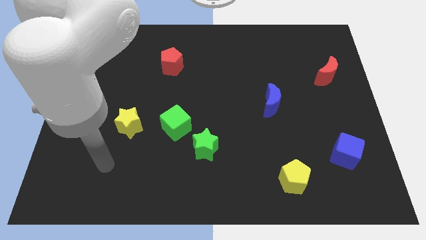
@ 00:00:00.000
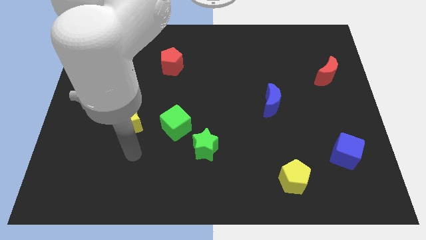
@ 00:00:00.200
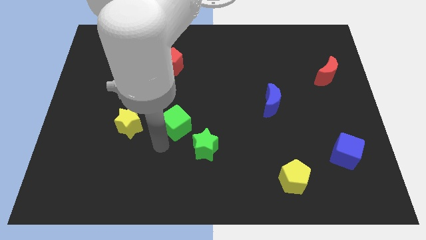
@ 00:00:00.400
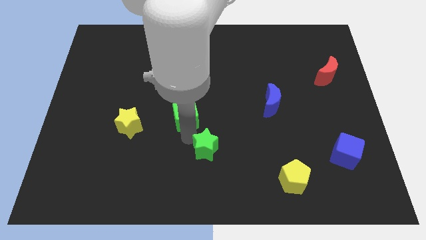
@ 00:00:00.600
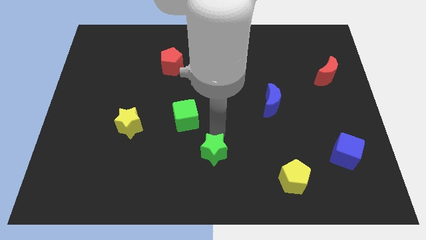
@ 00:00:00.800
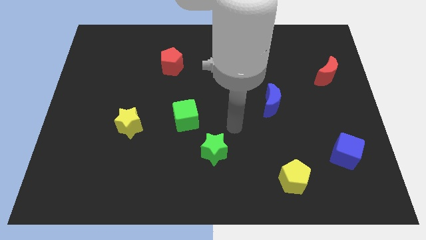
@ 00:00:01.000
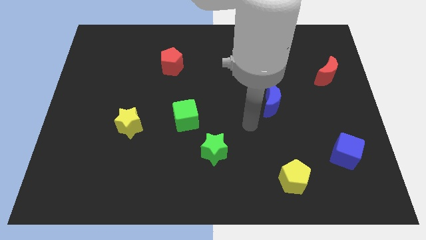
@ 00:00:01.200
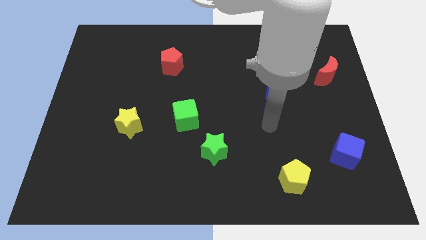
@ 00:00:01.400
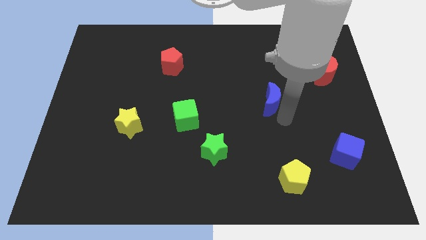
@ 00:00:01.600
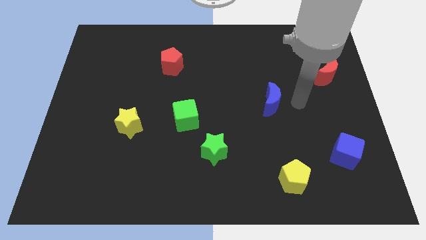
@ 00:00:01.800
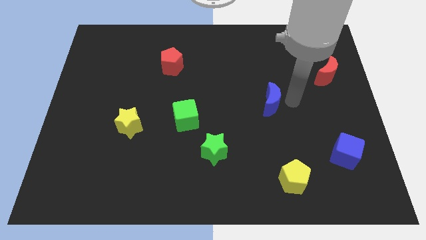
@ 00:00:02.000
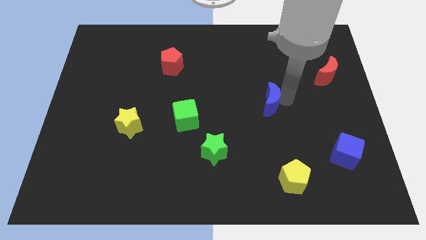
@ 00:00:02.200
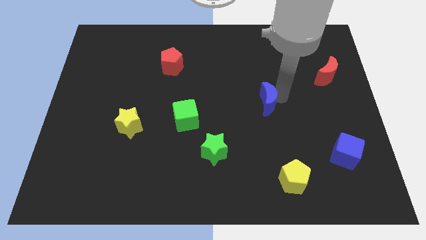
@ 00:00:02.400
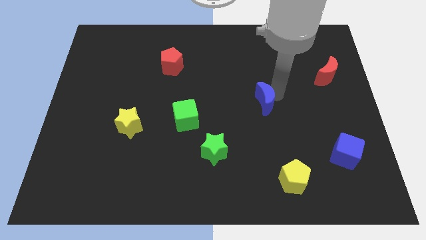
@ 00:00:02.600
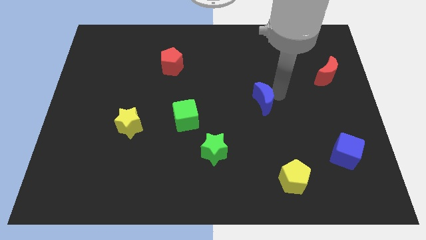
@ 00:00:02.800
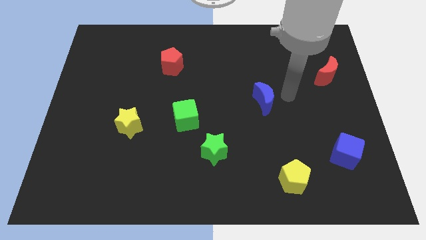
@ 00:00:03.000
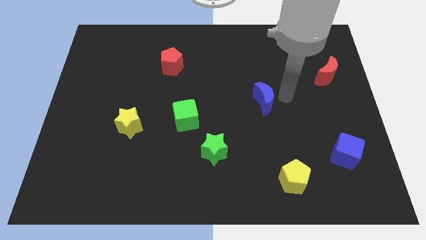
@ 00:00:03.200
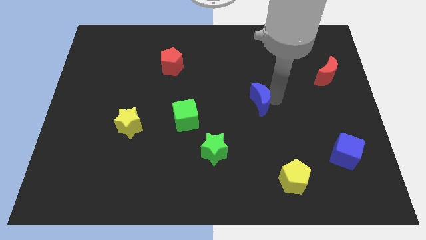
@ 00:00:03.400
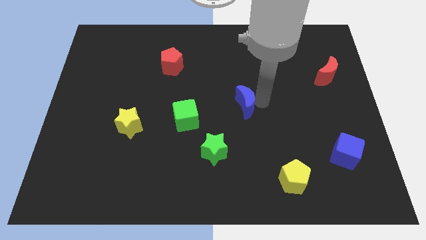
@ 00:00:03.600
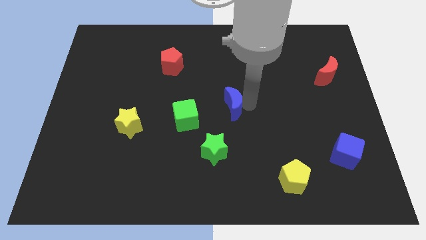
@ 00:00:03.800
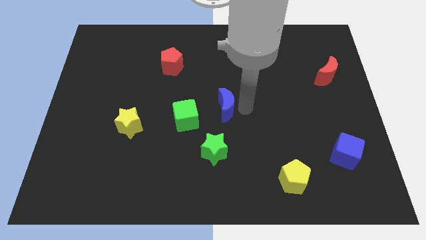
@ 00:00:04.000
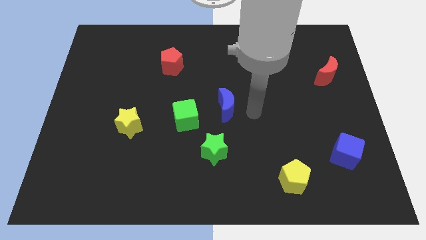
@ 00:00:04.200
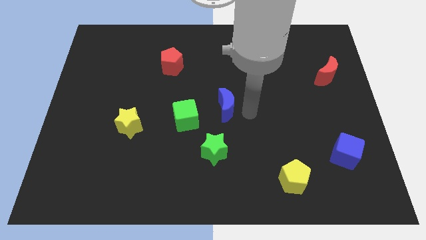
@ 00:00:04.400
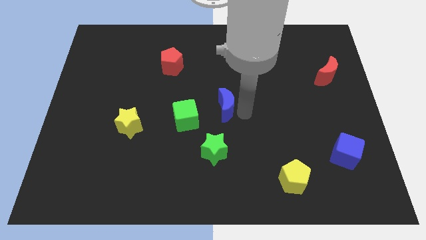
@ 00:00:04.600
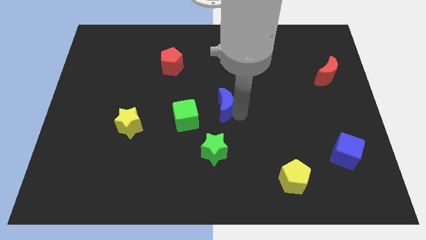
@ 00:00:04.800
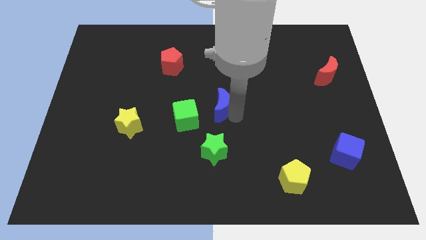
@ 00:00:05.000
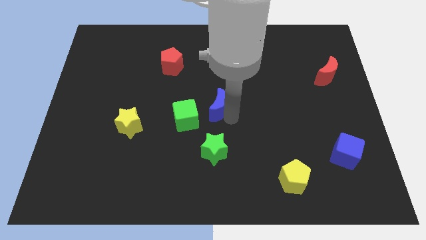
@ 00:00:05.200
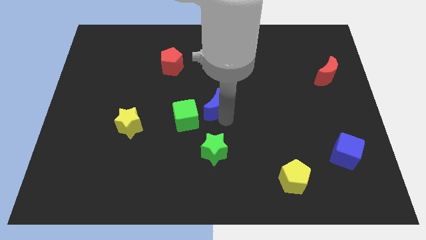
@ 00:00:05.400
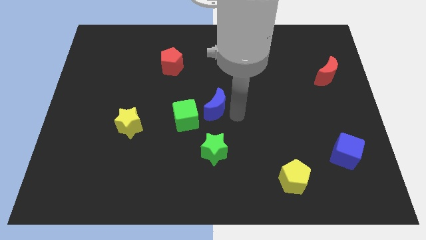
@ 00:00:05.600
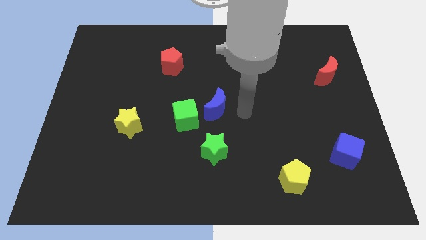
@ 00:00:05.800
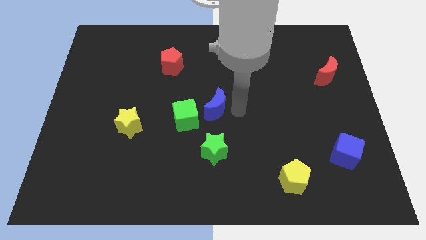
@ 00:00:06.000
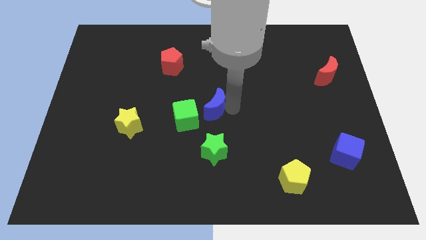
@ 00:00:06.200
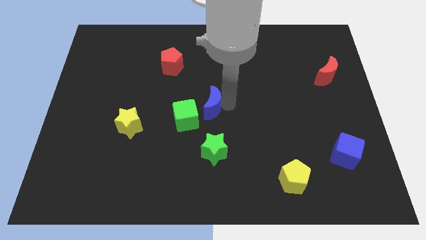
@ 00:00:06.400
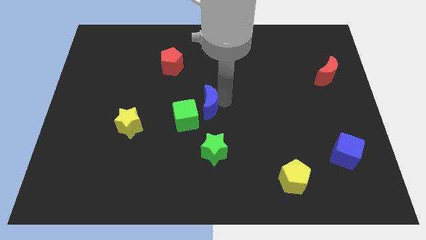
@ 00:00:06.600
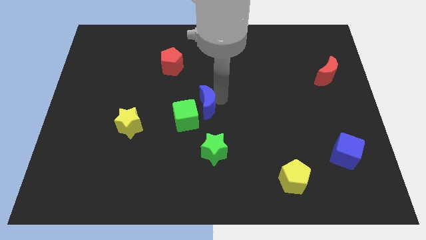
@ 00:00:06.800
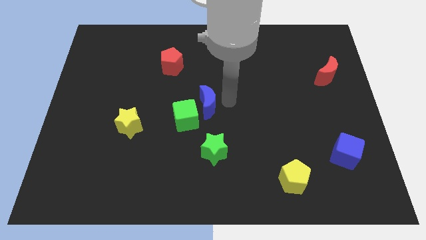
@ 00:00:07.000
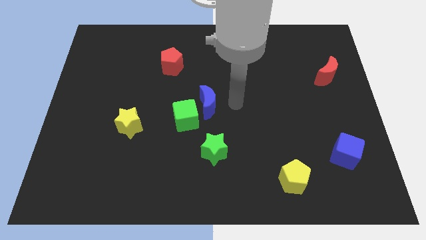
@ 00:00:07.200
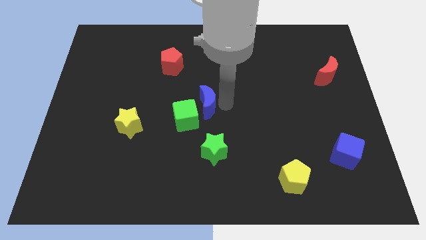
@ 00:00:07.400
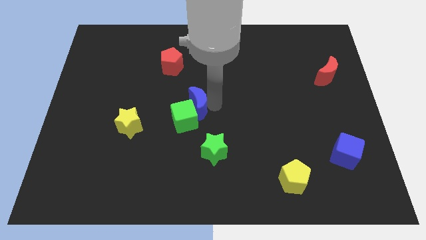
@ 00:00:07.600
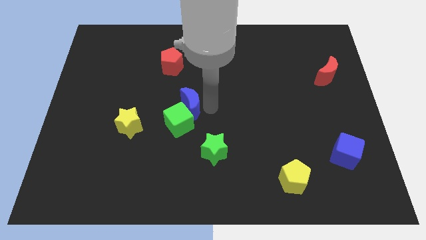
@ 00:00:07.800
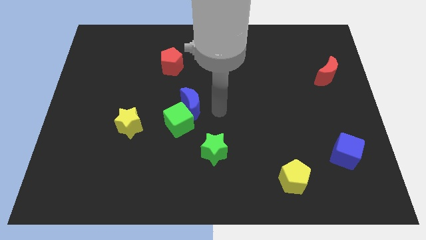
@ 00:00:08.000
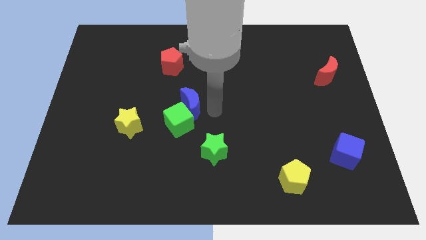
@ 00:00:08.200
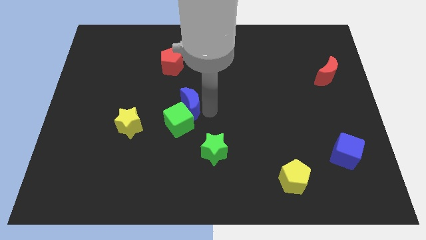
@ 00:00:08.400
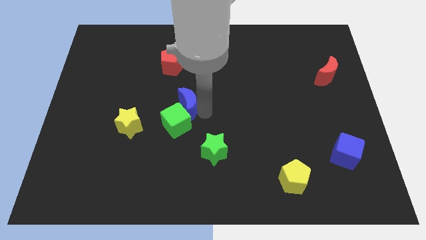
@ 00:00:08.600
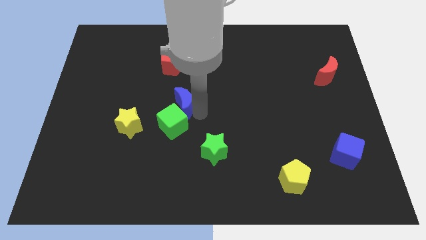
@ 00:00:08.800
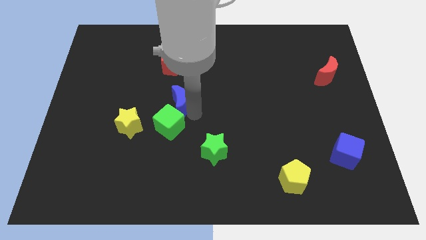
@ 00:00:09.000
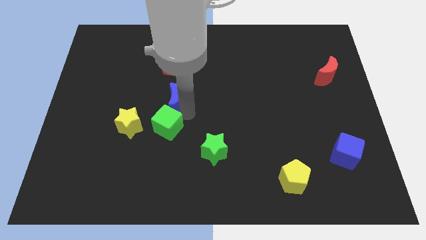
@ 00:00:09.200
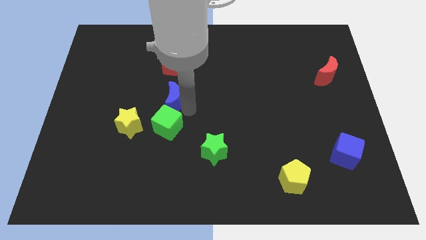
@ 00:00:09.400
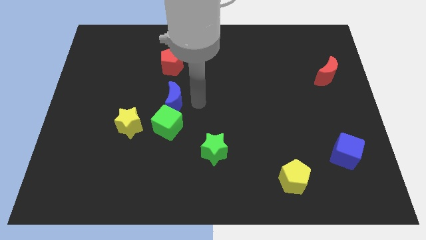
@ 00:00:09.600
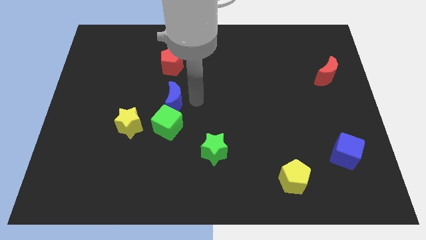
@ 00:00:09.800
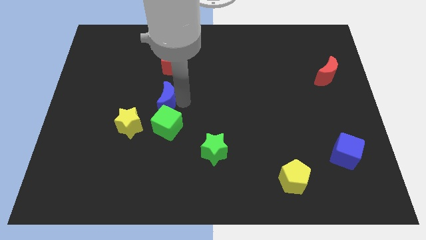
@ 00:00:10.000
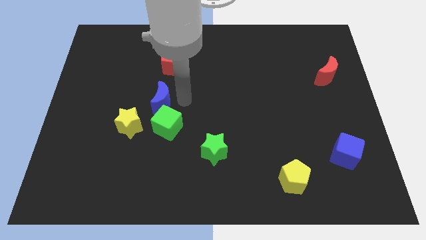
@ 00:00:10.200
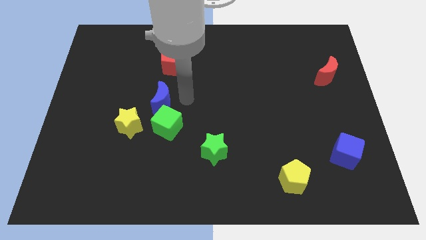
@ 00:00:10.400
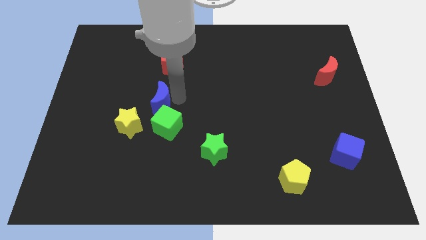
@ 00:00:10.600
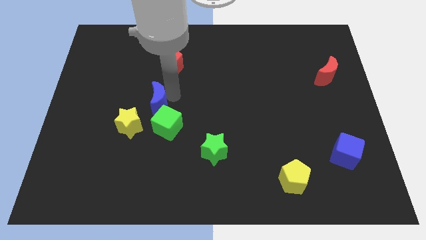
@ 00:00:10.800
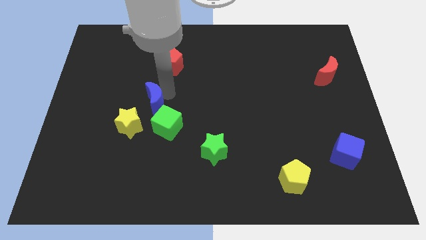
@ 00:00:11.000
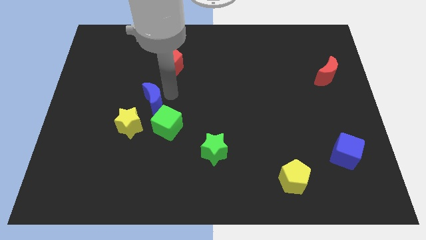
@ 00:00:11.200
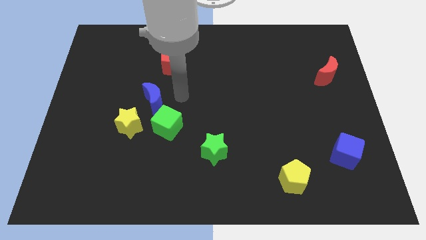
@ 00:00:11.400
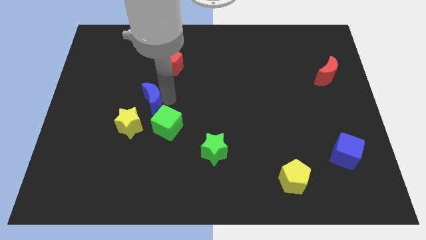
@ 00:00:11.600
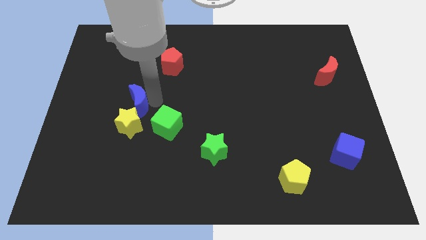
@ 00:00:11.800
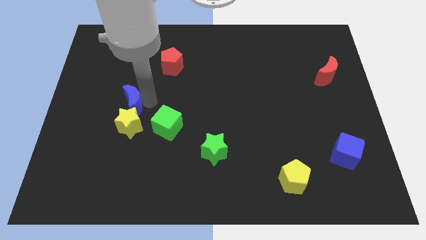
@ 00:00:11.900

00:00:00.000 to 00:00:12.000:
put the blue moon to the top left of the yellow star

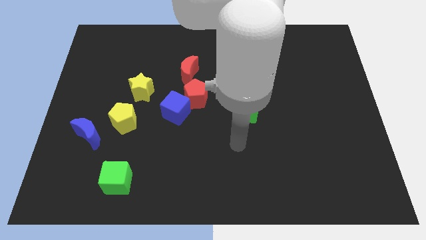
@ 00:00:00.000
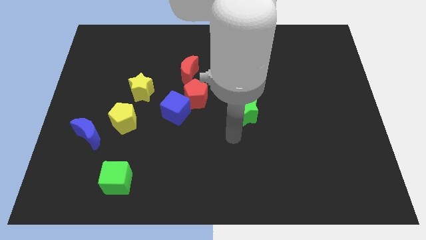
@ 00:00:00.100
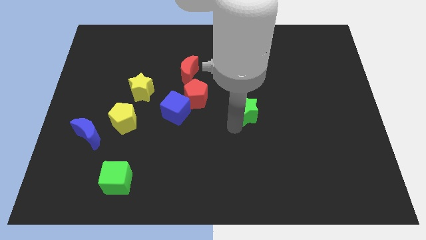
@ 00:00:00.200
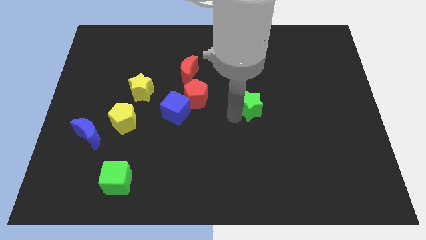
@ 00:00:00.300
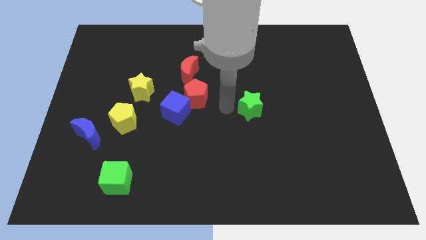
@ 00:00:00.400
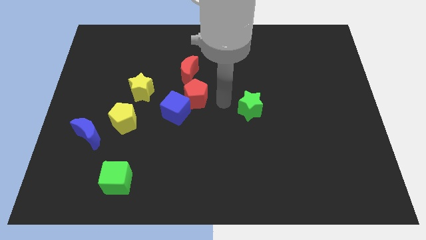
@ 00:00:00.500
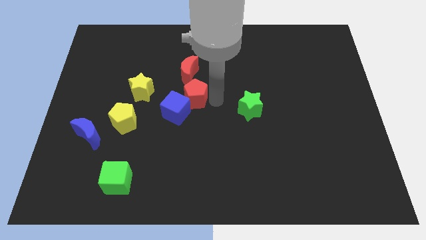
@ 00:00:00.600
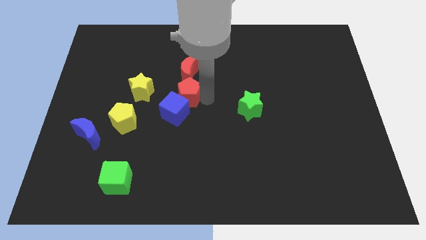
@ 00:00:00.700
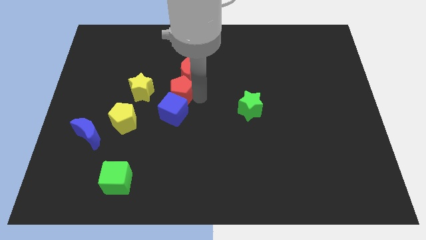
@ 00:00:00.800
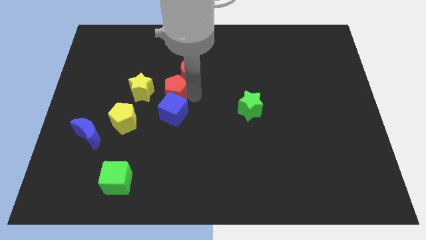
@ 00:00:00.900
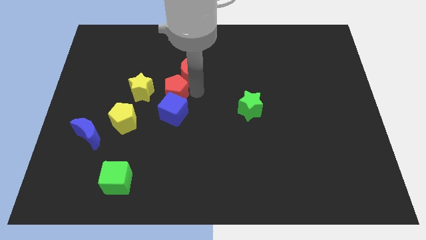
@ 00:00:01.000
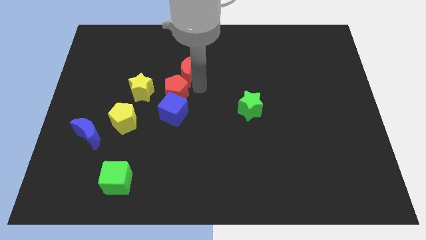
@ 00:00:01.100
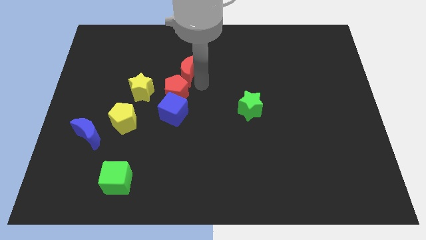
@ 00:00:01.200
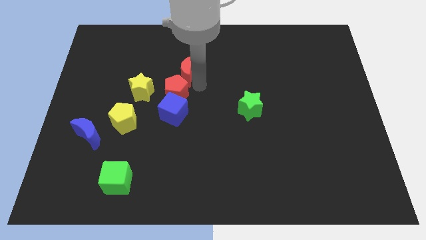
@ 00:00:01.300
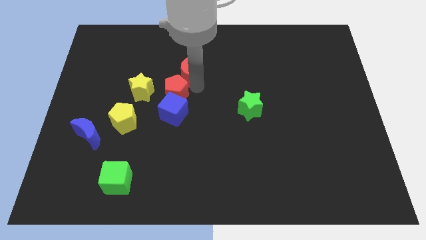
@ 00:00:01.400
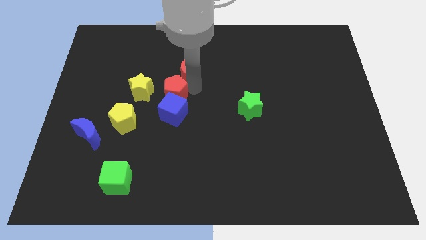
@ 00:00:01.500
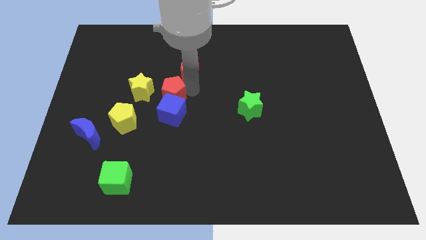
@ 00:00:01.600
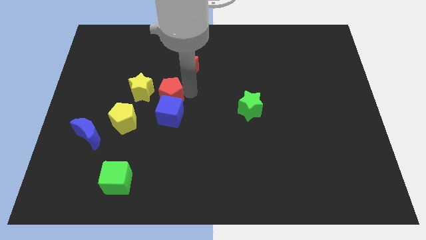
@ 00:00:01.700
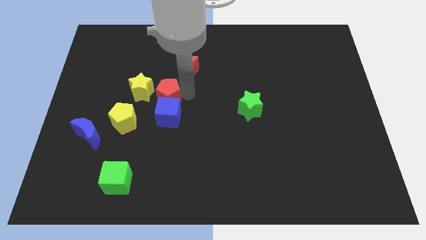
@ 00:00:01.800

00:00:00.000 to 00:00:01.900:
put the red pentagon to the top right of the yellow pentagon
